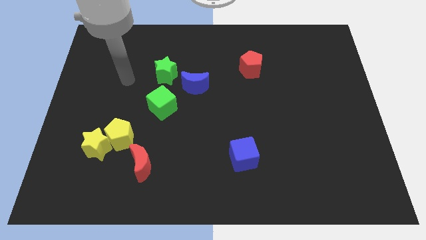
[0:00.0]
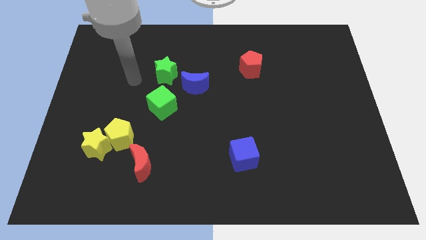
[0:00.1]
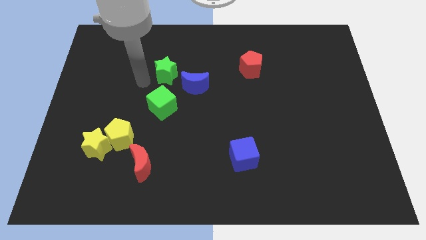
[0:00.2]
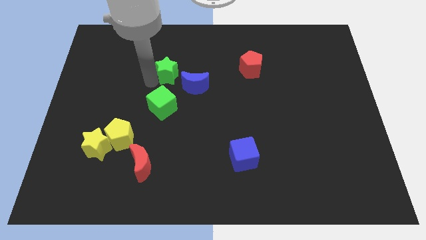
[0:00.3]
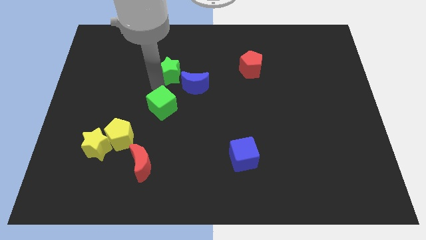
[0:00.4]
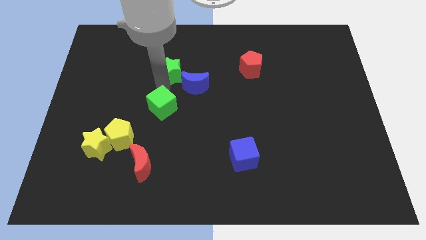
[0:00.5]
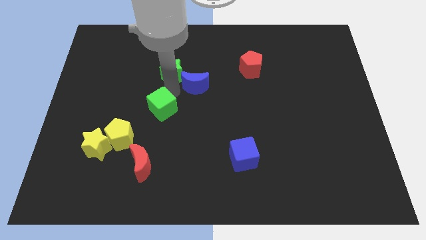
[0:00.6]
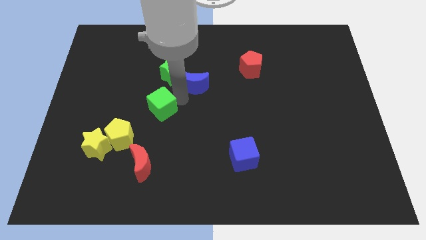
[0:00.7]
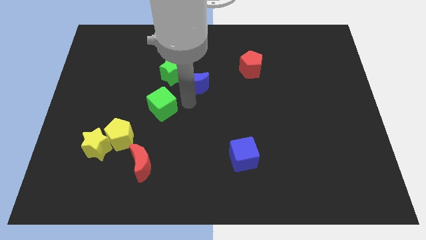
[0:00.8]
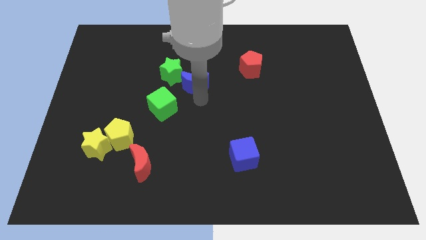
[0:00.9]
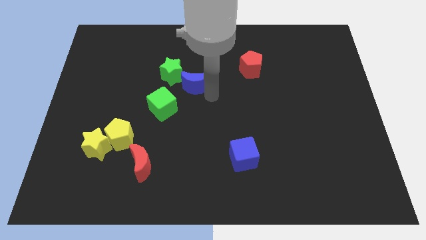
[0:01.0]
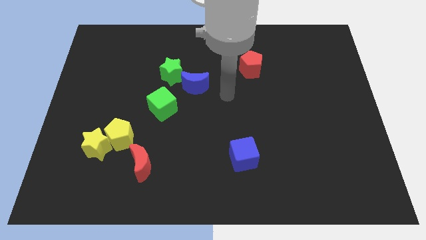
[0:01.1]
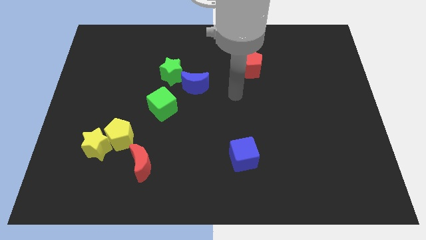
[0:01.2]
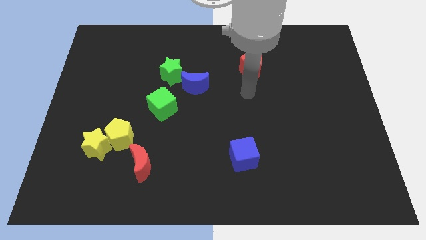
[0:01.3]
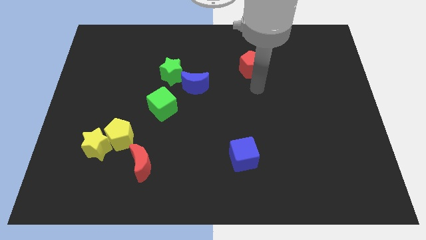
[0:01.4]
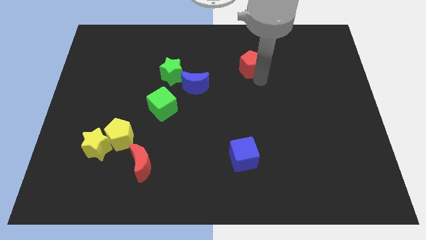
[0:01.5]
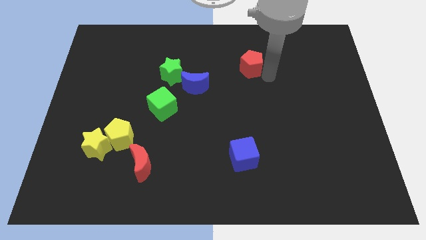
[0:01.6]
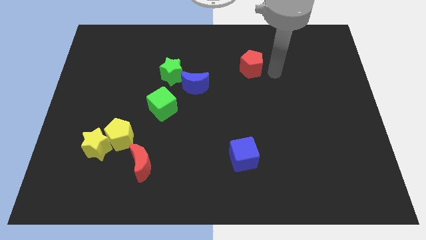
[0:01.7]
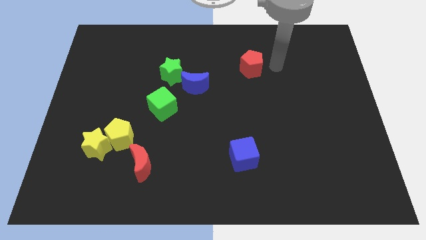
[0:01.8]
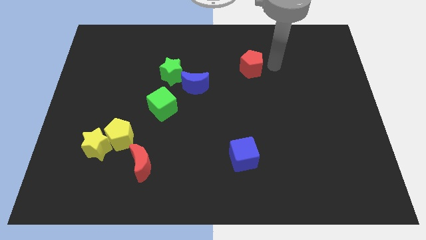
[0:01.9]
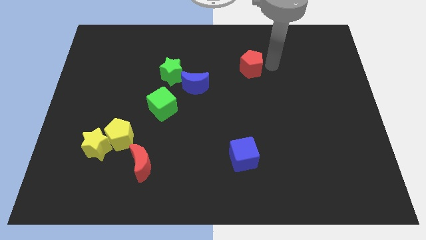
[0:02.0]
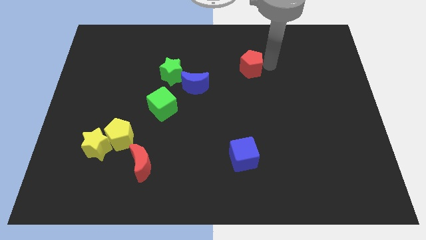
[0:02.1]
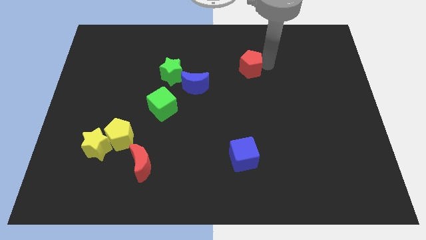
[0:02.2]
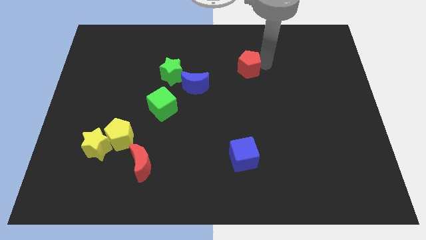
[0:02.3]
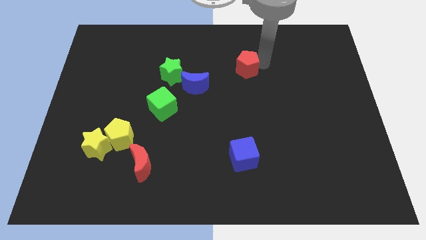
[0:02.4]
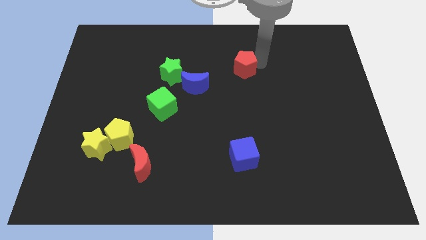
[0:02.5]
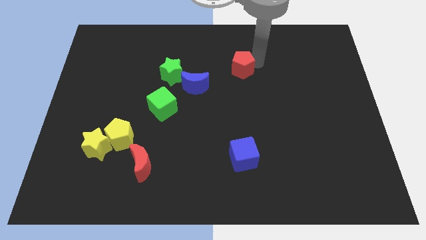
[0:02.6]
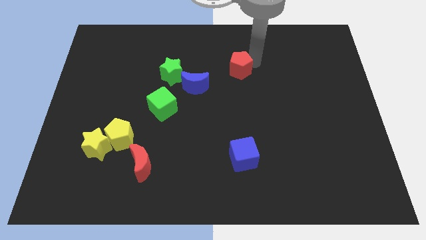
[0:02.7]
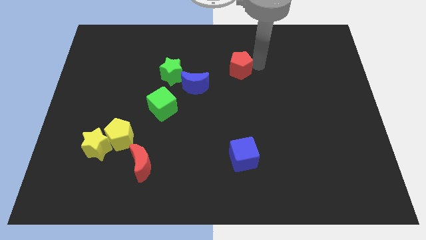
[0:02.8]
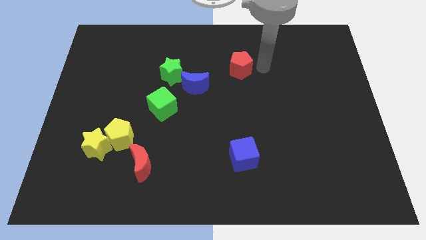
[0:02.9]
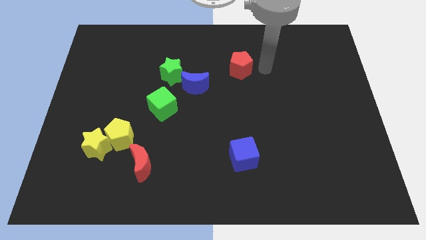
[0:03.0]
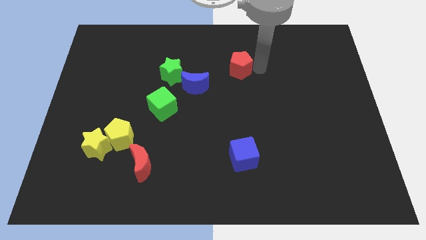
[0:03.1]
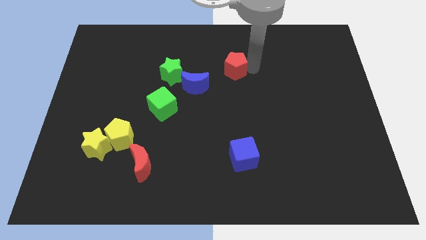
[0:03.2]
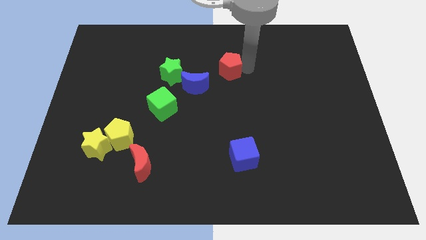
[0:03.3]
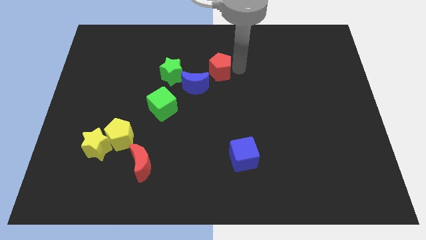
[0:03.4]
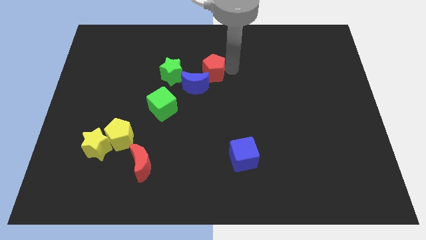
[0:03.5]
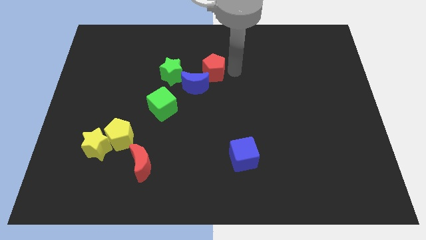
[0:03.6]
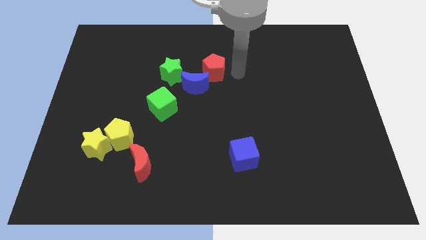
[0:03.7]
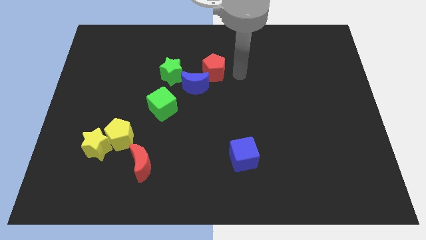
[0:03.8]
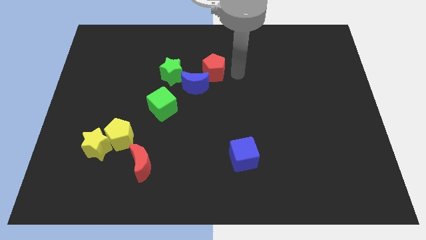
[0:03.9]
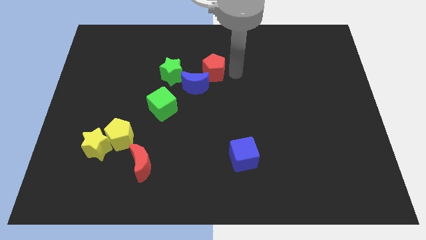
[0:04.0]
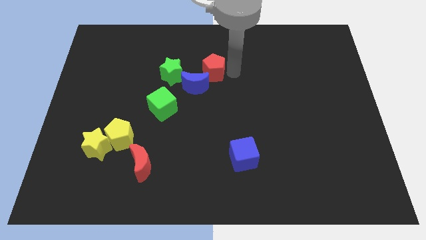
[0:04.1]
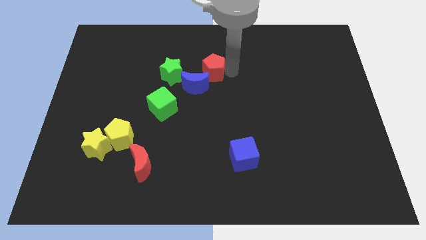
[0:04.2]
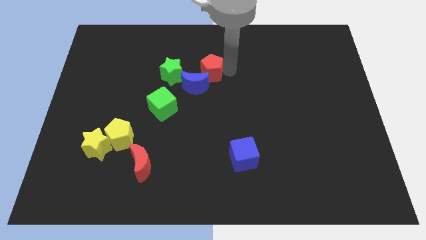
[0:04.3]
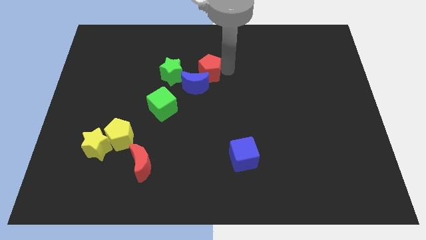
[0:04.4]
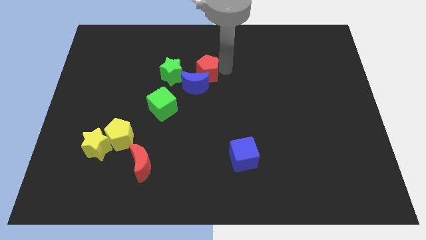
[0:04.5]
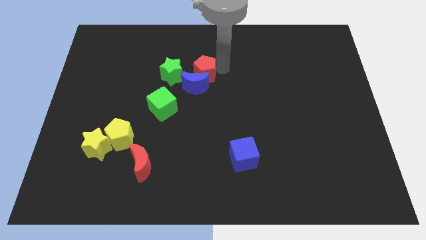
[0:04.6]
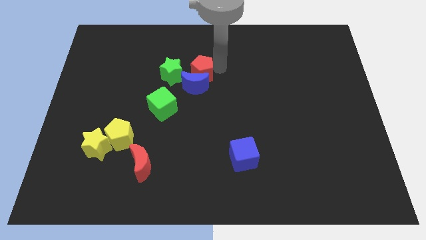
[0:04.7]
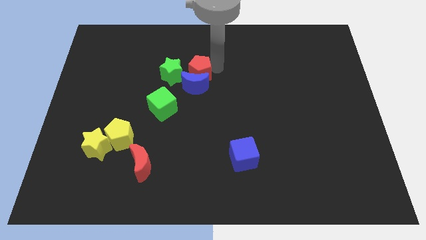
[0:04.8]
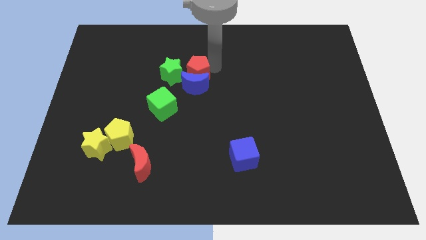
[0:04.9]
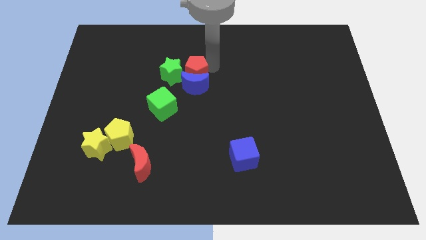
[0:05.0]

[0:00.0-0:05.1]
slide the red pentagon to the green star

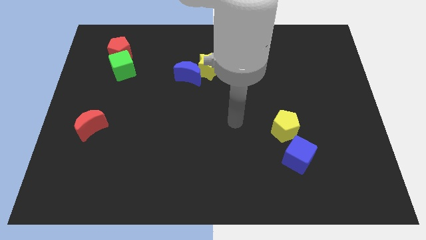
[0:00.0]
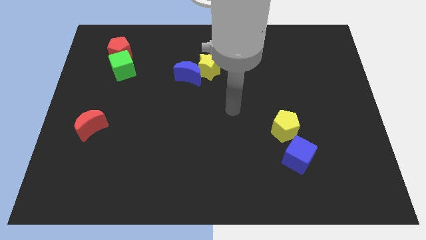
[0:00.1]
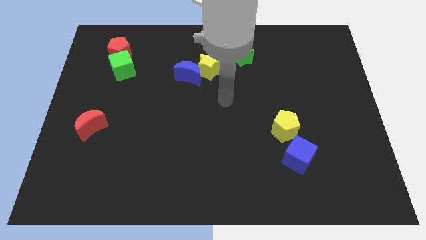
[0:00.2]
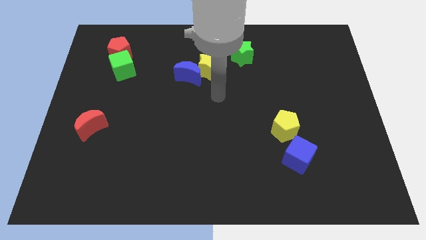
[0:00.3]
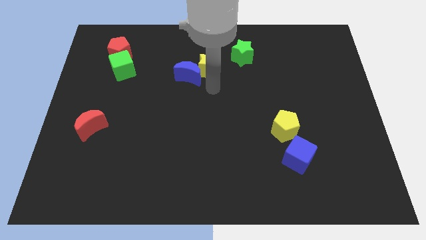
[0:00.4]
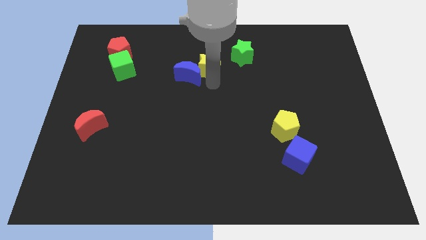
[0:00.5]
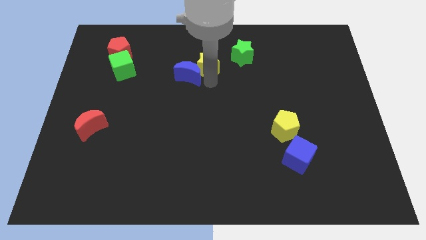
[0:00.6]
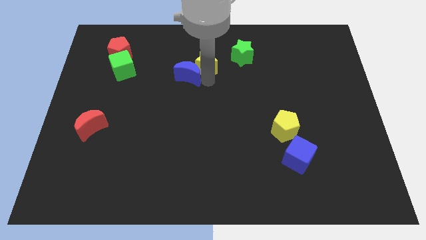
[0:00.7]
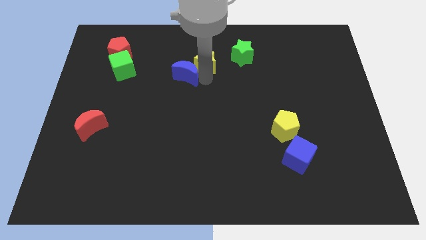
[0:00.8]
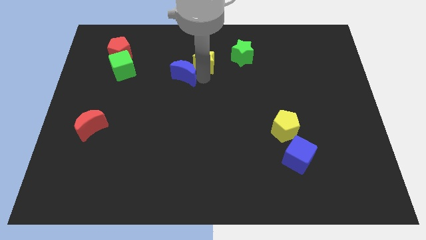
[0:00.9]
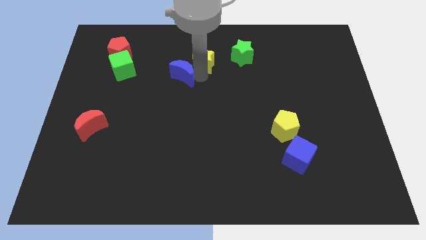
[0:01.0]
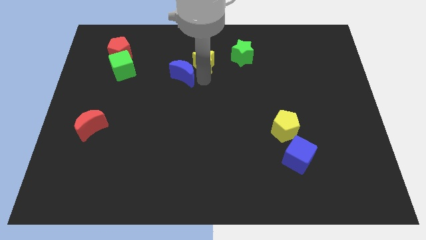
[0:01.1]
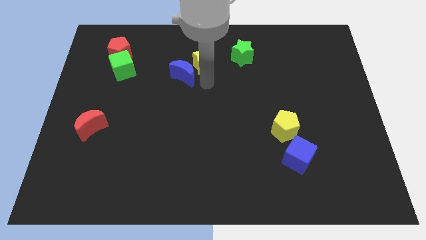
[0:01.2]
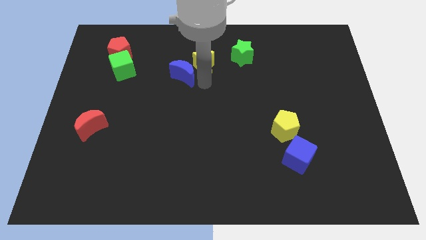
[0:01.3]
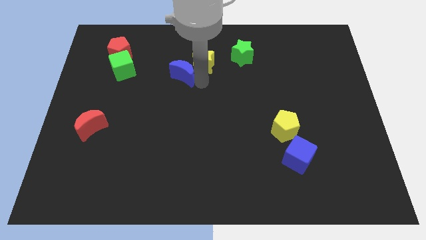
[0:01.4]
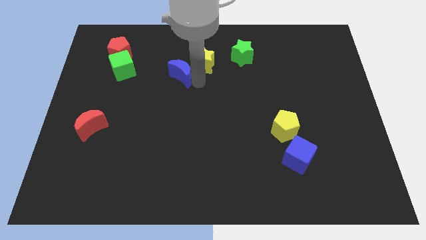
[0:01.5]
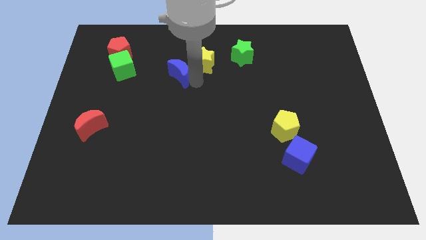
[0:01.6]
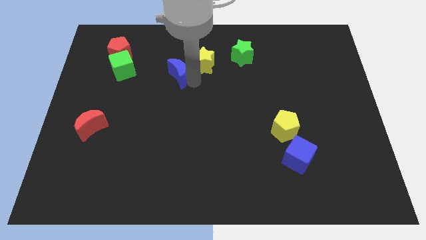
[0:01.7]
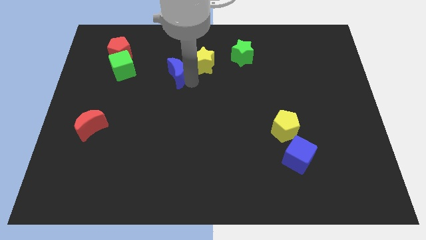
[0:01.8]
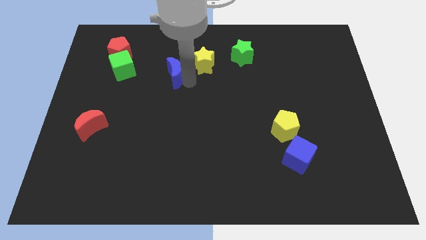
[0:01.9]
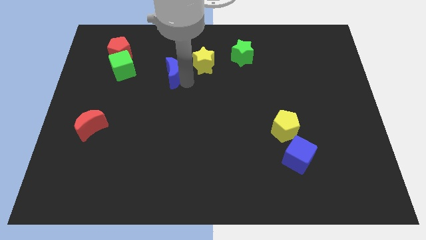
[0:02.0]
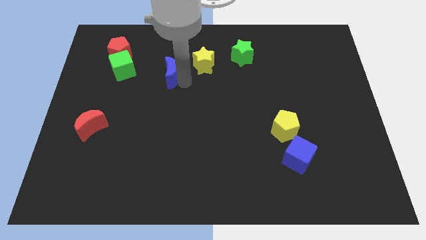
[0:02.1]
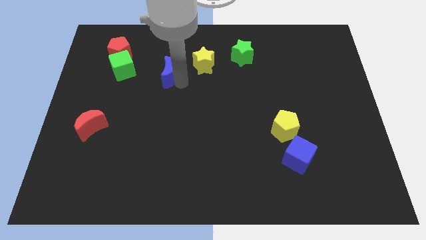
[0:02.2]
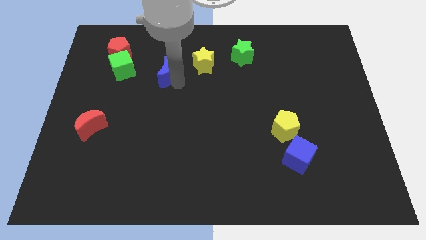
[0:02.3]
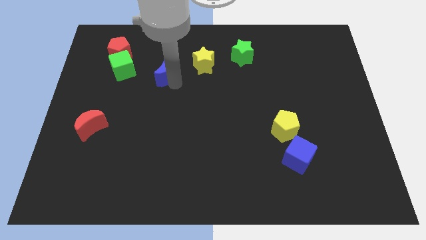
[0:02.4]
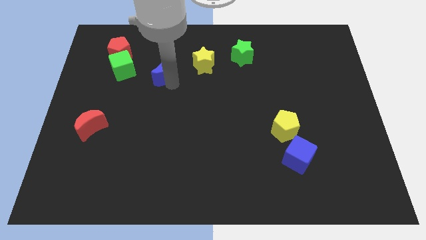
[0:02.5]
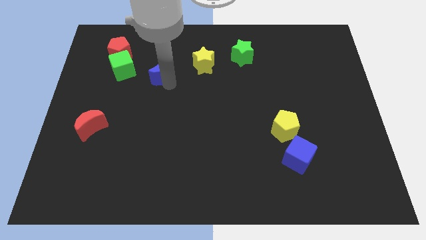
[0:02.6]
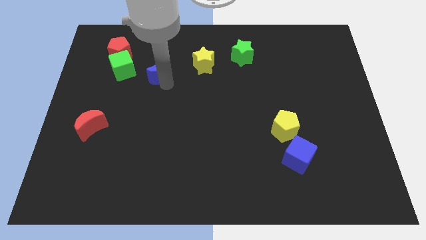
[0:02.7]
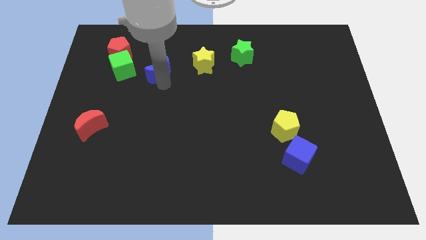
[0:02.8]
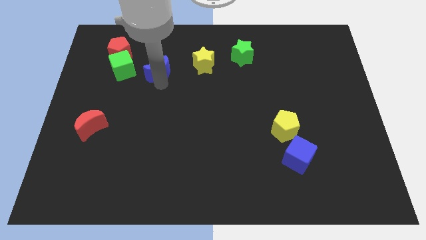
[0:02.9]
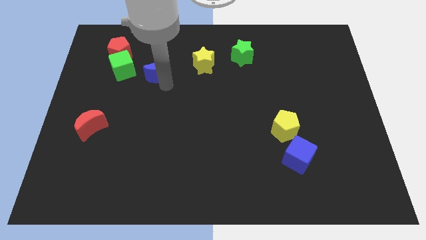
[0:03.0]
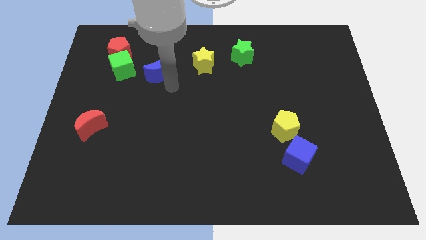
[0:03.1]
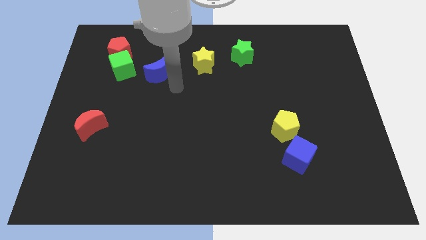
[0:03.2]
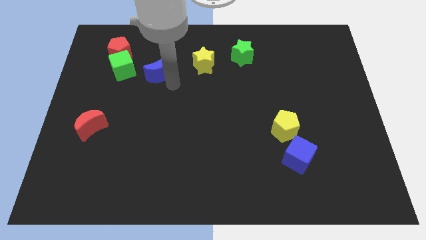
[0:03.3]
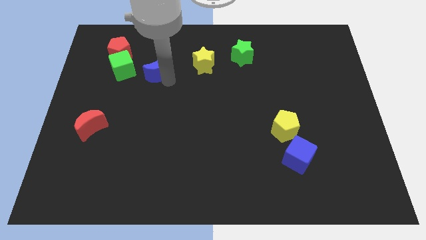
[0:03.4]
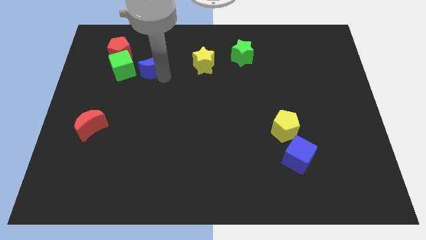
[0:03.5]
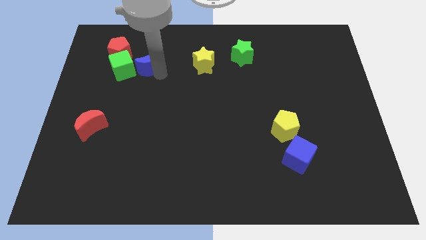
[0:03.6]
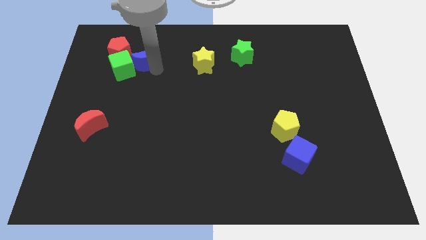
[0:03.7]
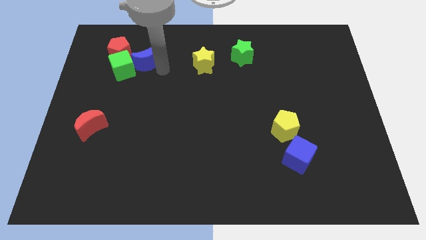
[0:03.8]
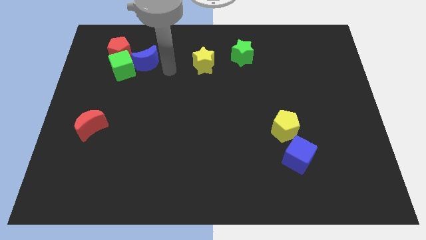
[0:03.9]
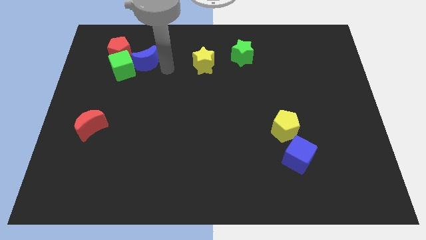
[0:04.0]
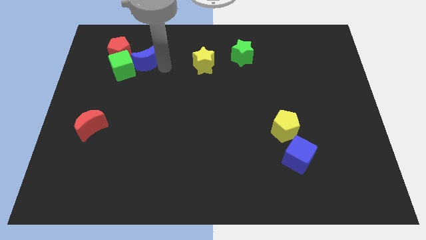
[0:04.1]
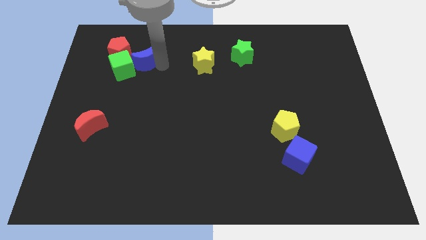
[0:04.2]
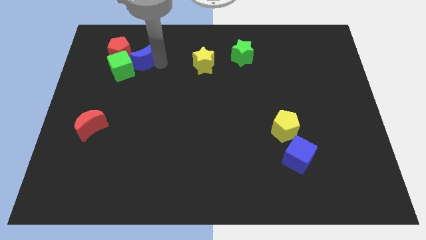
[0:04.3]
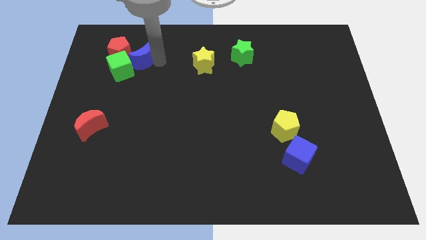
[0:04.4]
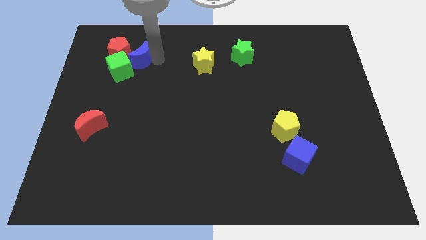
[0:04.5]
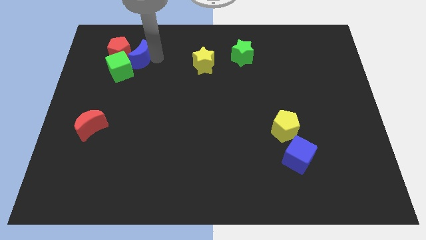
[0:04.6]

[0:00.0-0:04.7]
move the blue moon towards the red pentagon
